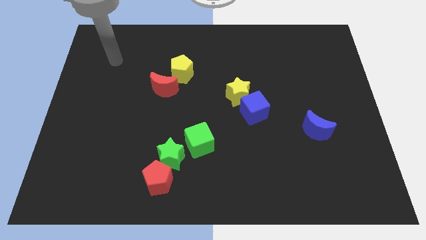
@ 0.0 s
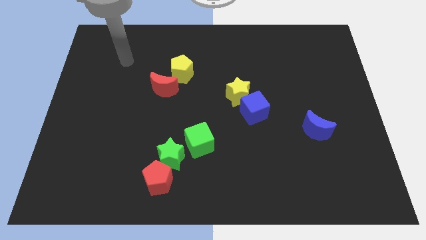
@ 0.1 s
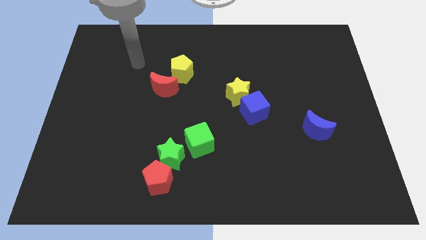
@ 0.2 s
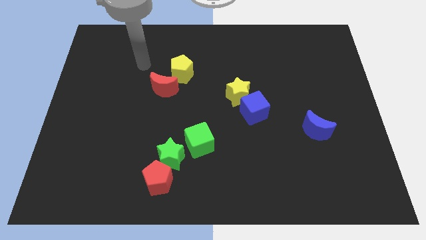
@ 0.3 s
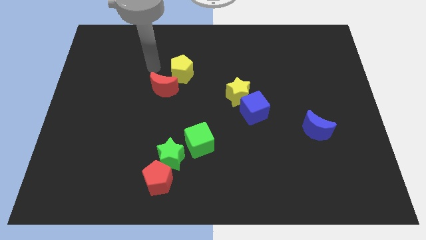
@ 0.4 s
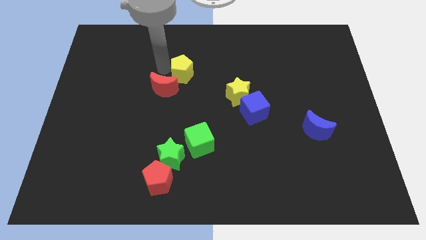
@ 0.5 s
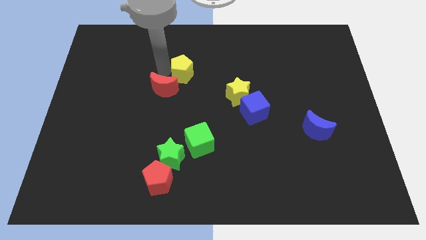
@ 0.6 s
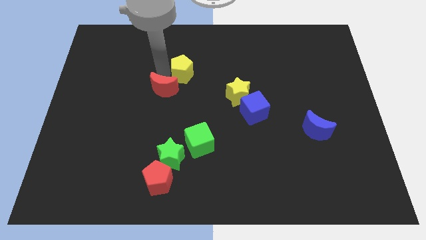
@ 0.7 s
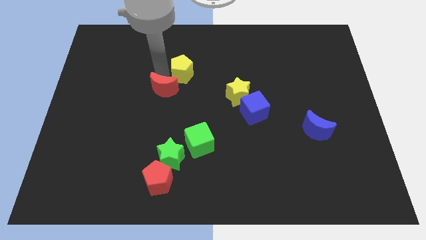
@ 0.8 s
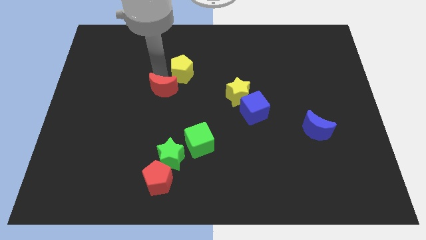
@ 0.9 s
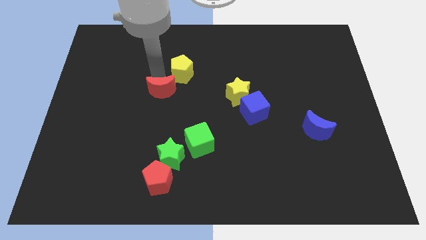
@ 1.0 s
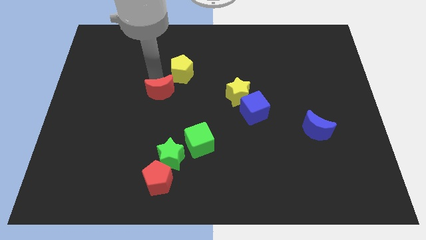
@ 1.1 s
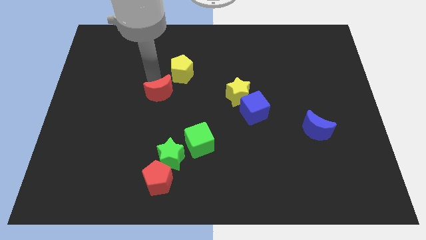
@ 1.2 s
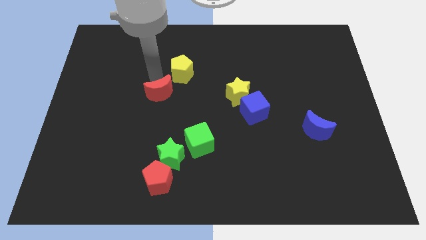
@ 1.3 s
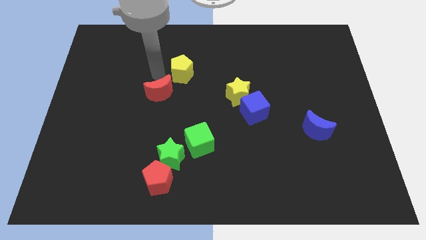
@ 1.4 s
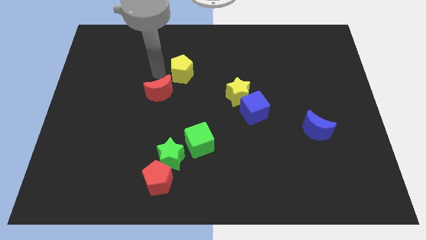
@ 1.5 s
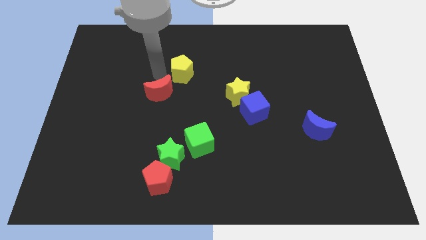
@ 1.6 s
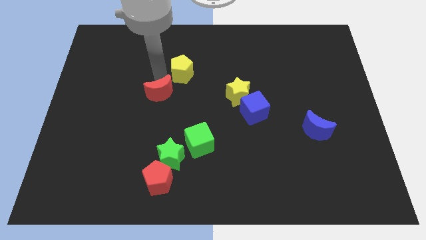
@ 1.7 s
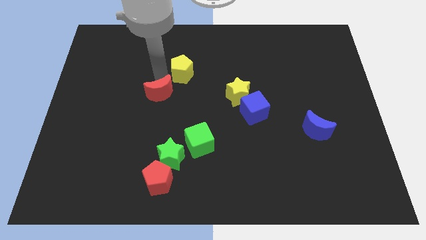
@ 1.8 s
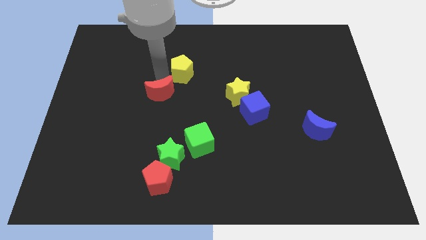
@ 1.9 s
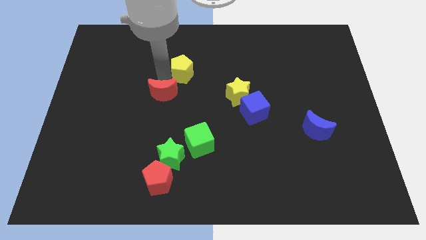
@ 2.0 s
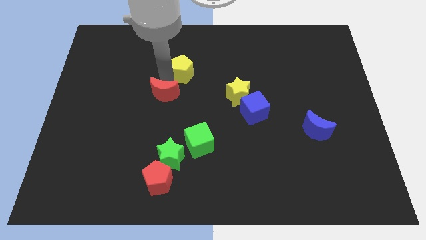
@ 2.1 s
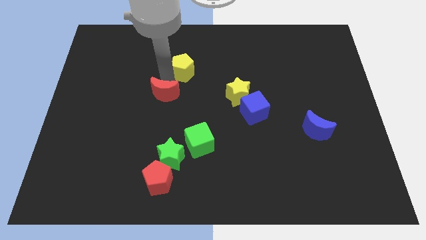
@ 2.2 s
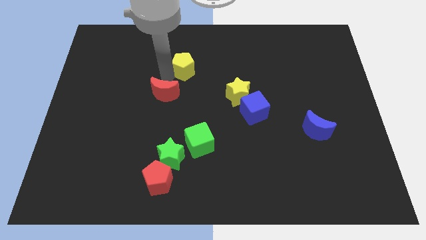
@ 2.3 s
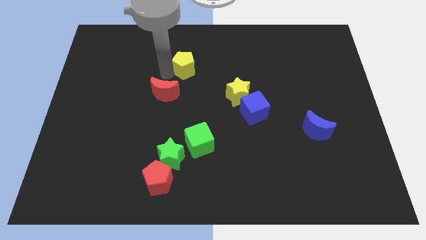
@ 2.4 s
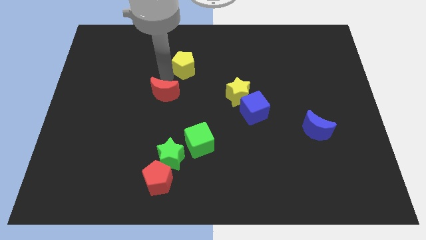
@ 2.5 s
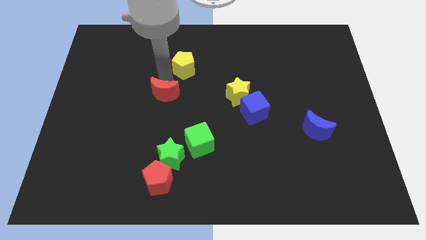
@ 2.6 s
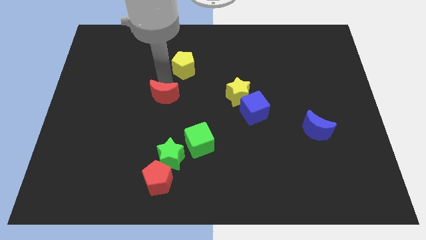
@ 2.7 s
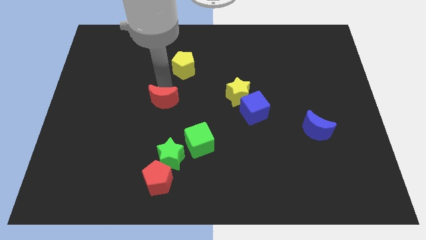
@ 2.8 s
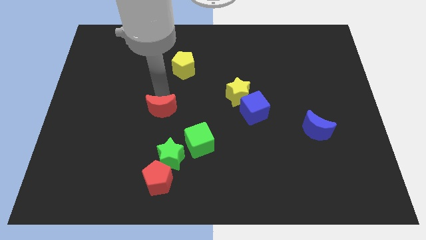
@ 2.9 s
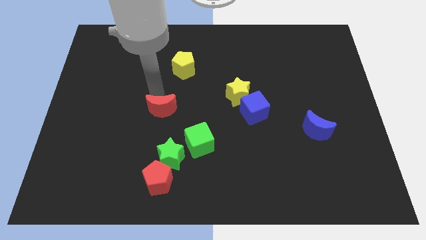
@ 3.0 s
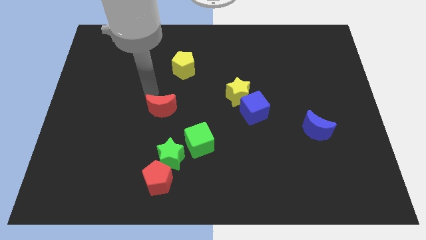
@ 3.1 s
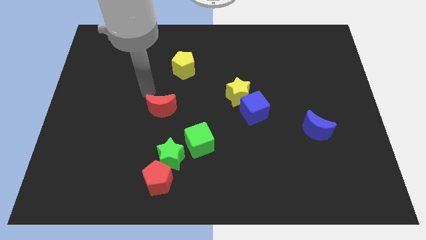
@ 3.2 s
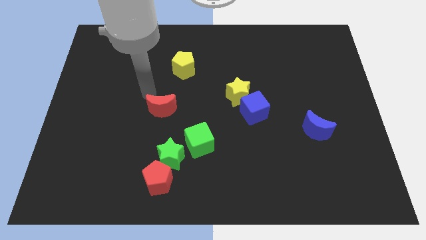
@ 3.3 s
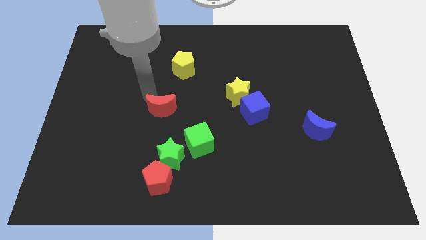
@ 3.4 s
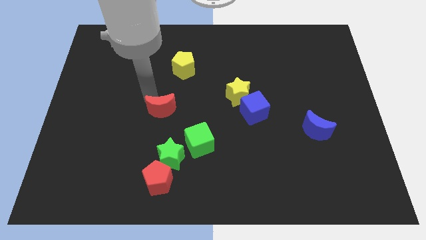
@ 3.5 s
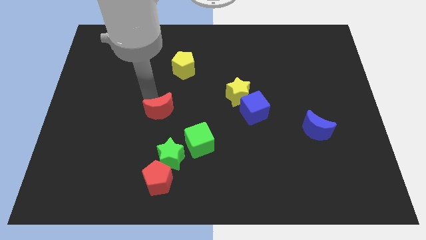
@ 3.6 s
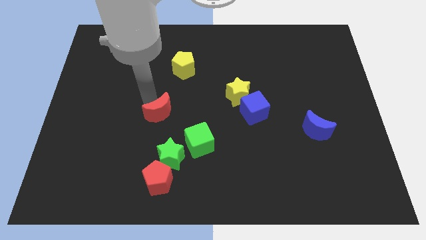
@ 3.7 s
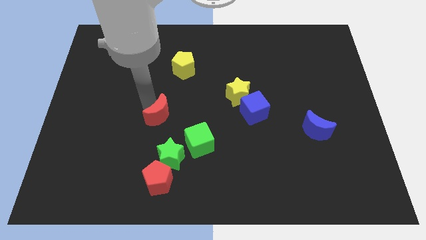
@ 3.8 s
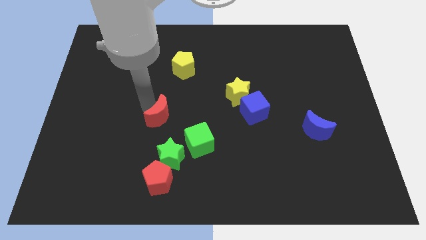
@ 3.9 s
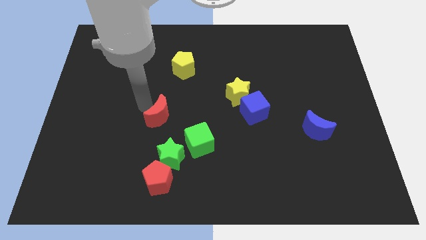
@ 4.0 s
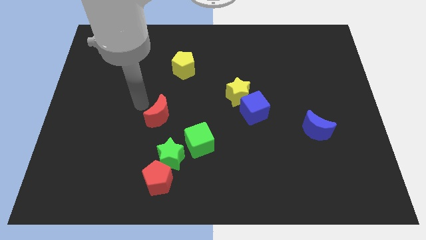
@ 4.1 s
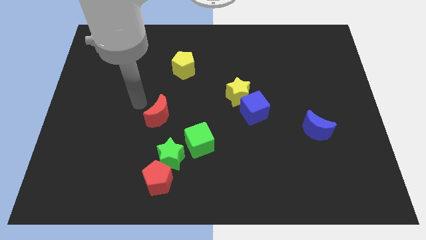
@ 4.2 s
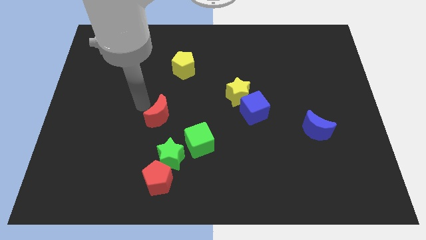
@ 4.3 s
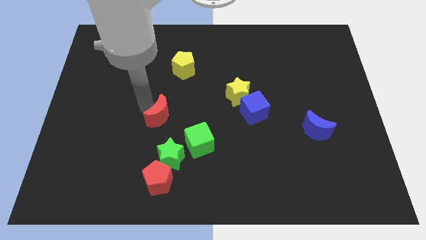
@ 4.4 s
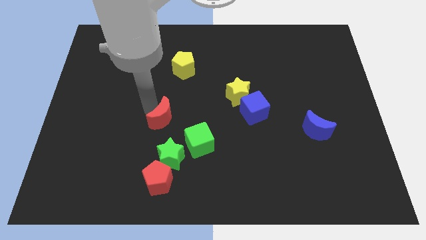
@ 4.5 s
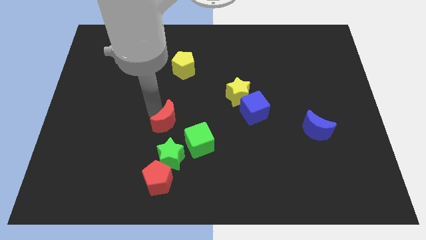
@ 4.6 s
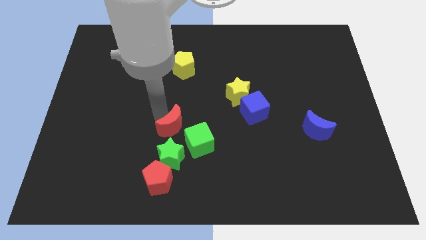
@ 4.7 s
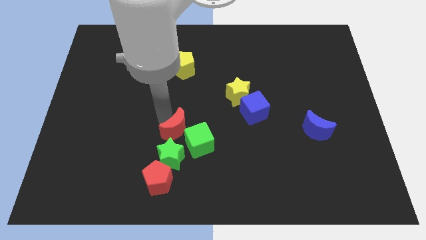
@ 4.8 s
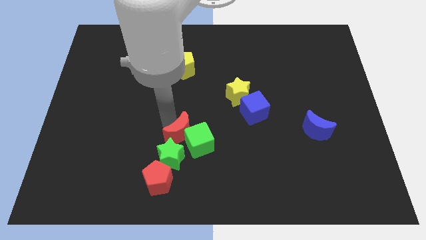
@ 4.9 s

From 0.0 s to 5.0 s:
slide the red moon towards the green cube

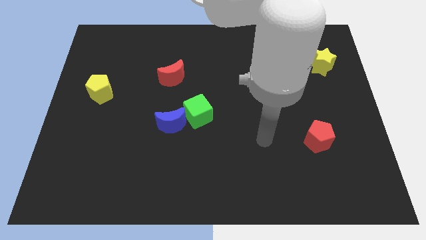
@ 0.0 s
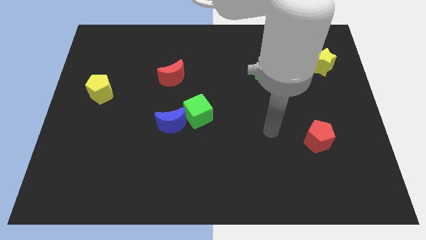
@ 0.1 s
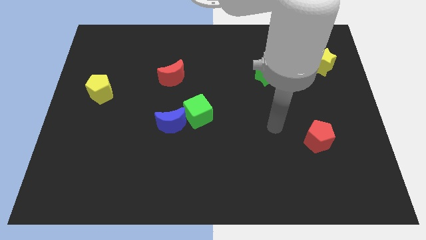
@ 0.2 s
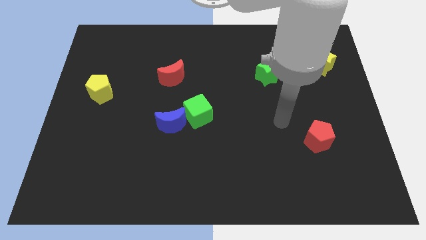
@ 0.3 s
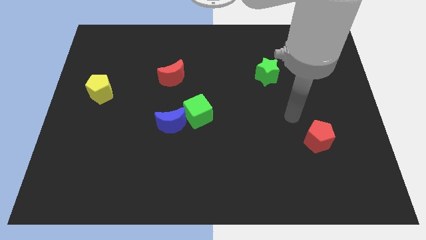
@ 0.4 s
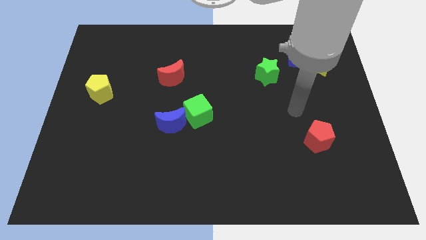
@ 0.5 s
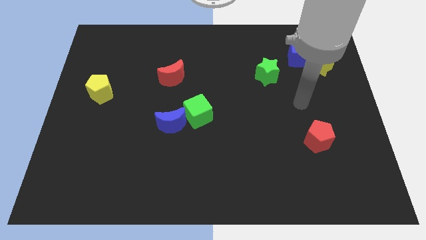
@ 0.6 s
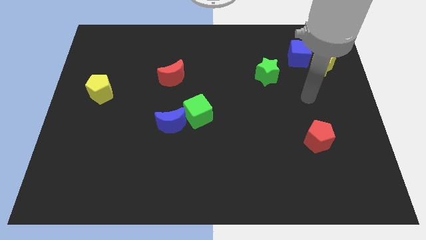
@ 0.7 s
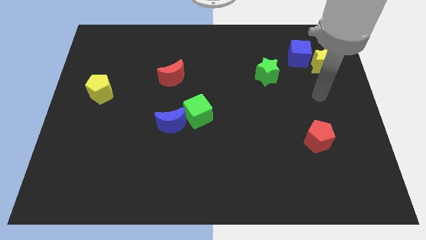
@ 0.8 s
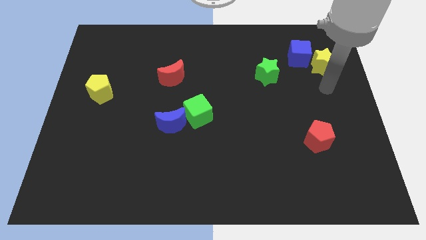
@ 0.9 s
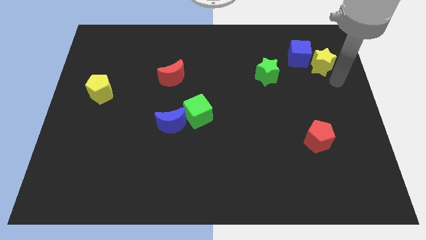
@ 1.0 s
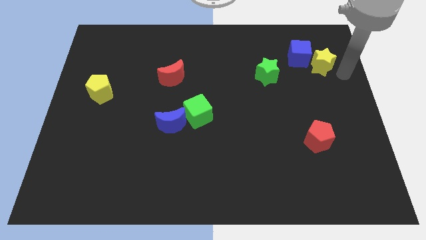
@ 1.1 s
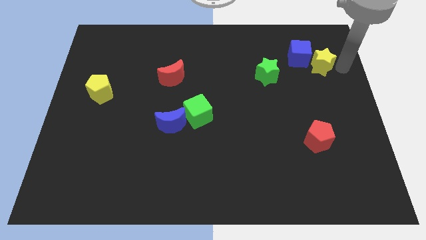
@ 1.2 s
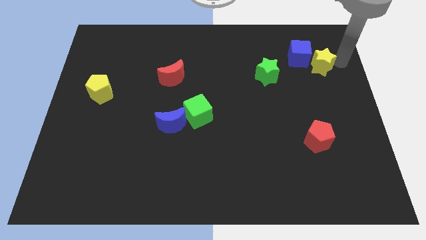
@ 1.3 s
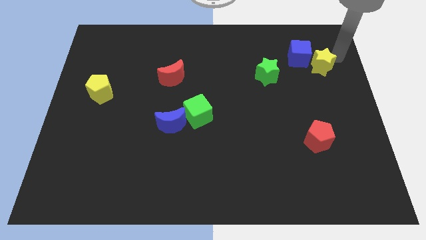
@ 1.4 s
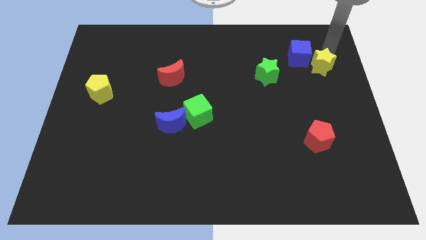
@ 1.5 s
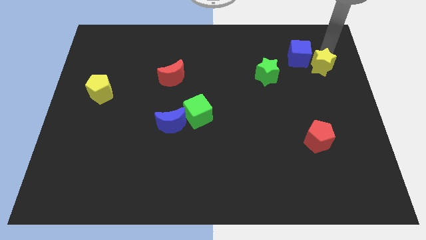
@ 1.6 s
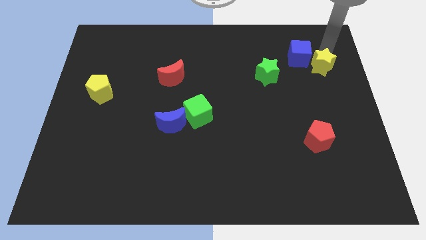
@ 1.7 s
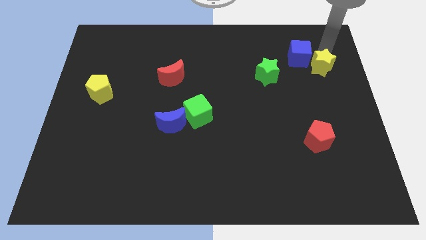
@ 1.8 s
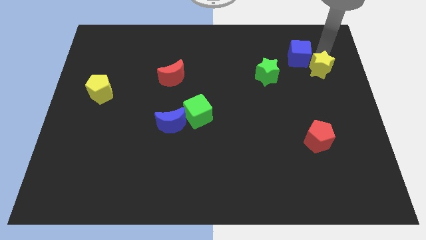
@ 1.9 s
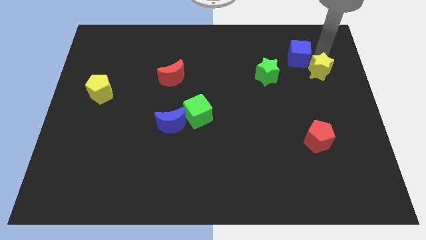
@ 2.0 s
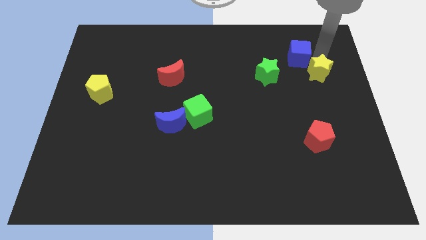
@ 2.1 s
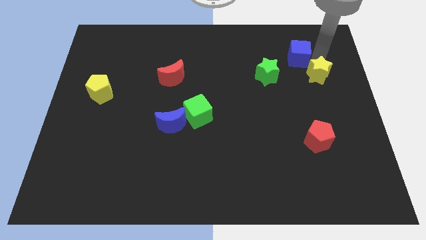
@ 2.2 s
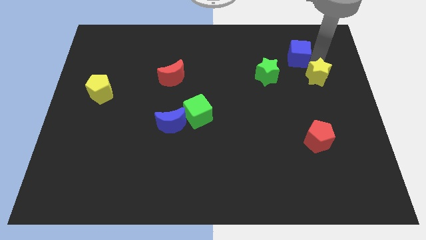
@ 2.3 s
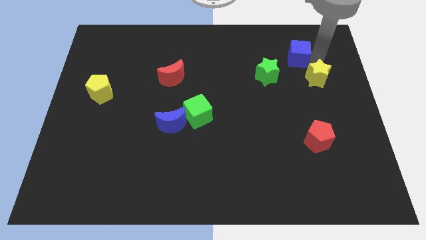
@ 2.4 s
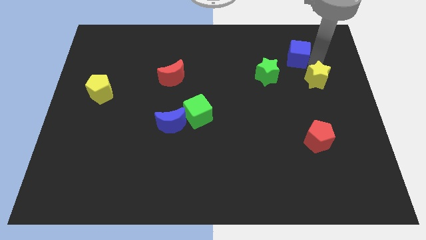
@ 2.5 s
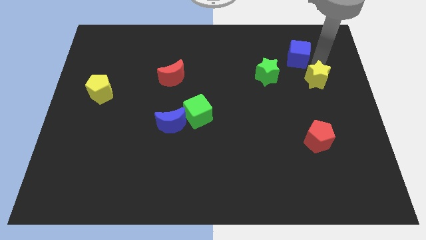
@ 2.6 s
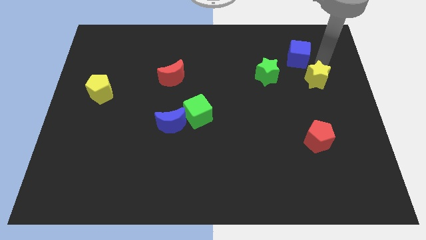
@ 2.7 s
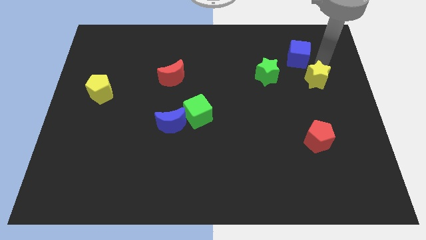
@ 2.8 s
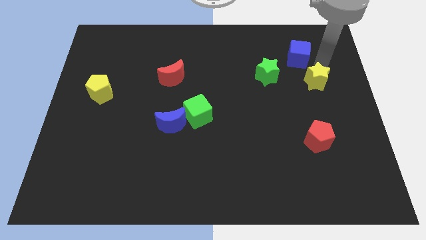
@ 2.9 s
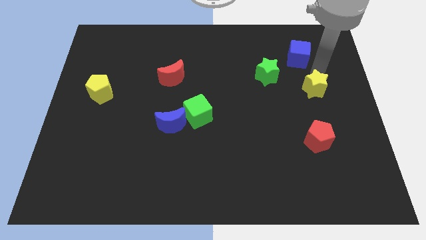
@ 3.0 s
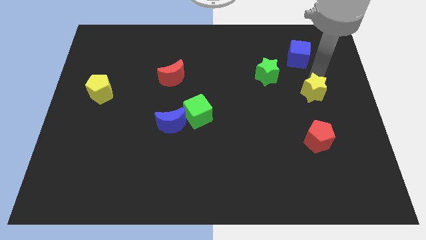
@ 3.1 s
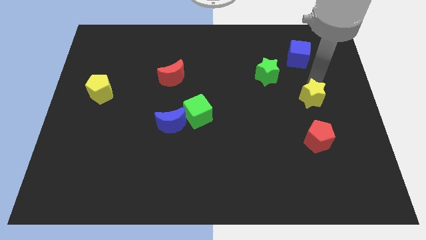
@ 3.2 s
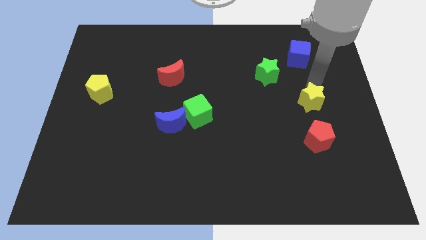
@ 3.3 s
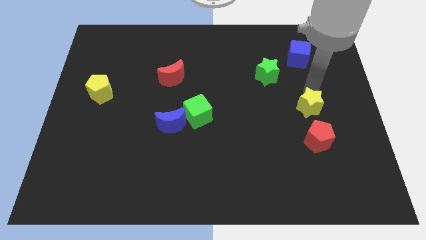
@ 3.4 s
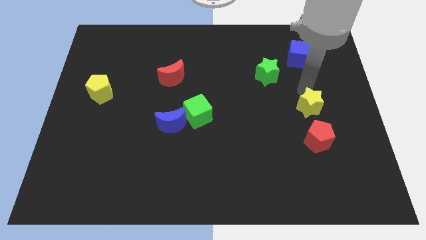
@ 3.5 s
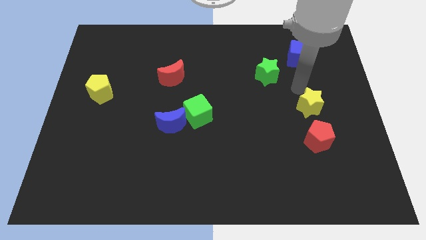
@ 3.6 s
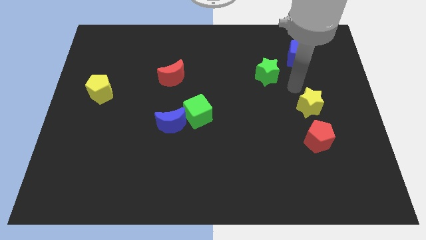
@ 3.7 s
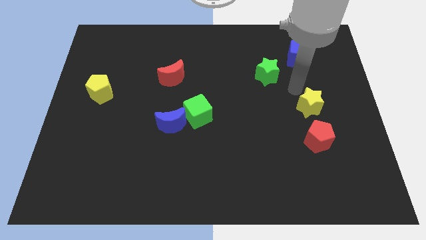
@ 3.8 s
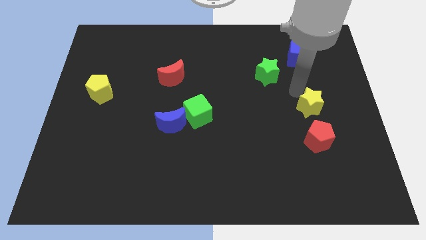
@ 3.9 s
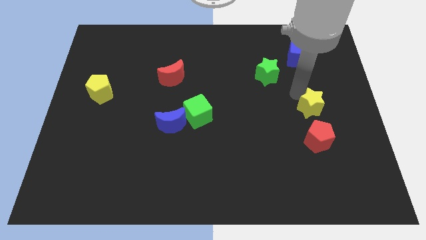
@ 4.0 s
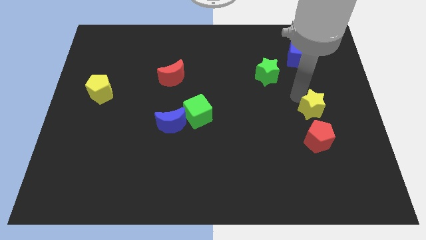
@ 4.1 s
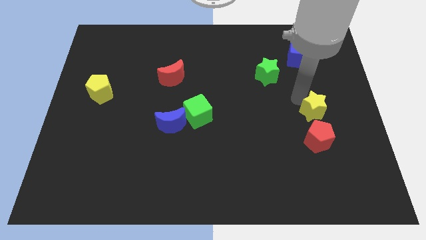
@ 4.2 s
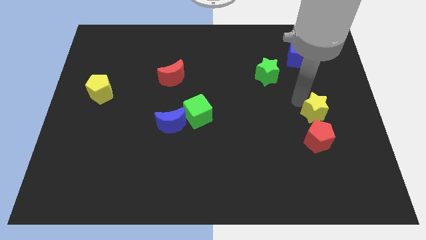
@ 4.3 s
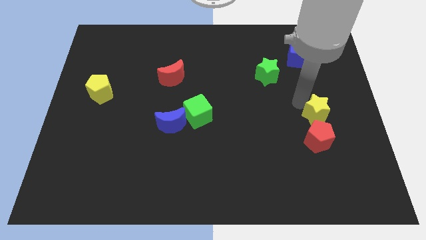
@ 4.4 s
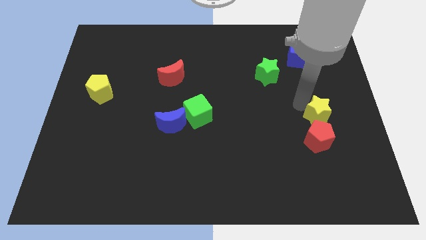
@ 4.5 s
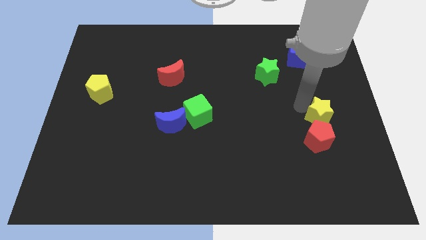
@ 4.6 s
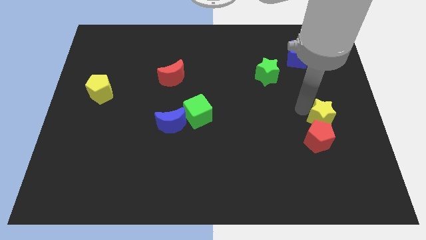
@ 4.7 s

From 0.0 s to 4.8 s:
push the yellow star next to the red pentagon
